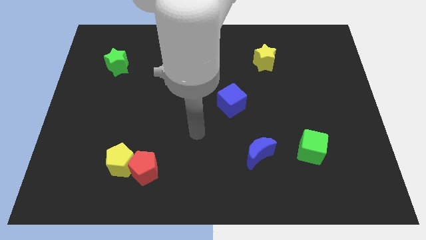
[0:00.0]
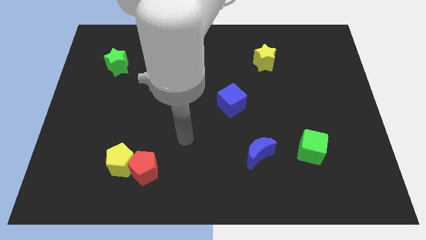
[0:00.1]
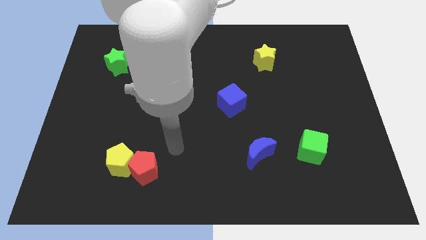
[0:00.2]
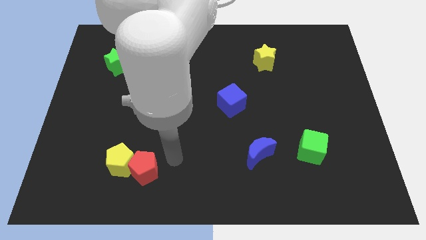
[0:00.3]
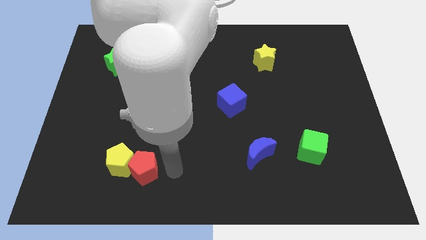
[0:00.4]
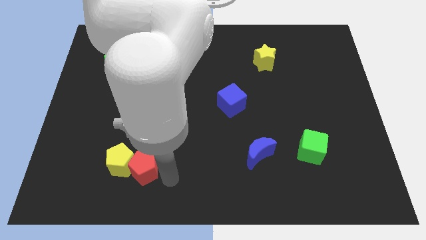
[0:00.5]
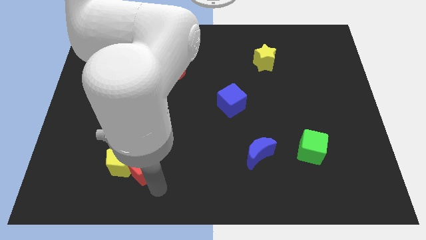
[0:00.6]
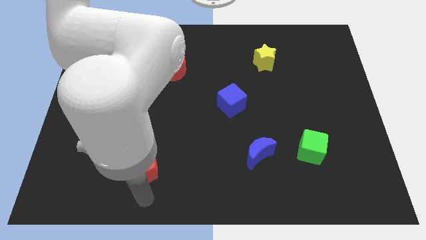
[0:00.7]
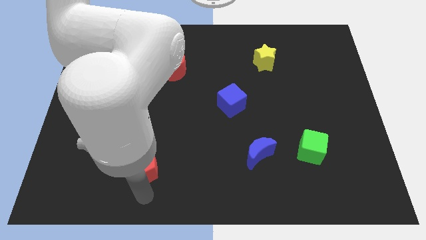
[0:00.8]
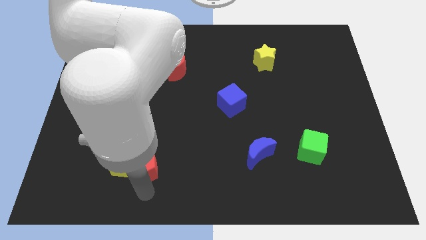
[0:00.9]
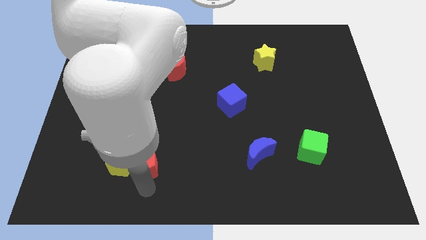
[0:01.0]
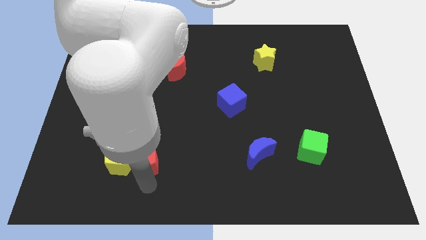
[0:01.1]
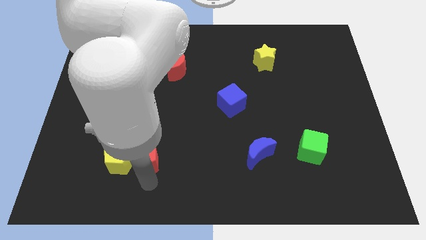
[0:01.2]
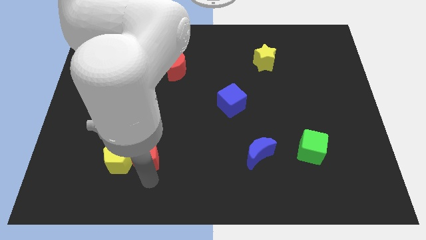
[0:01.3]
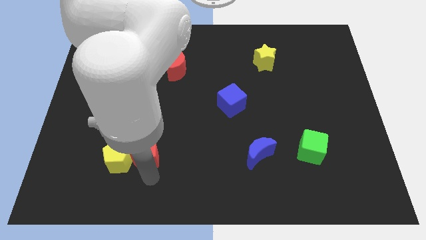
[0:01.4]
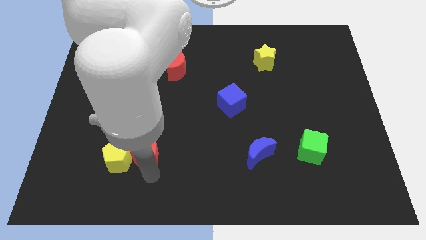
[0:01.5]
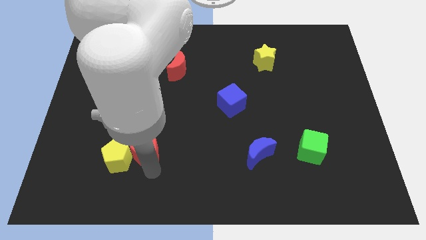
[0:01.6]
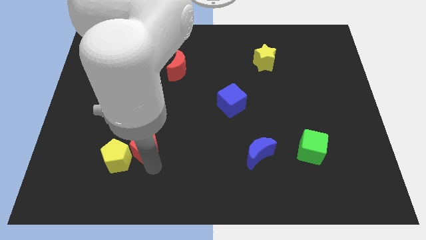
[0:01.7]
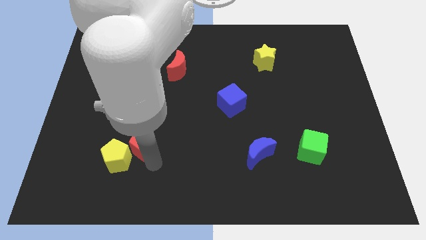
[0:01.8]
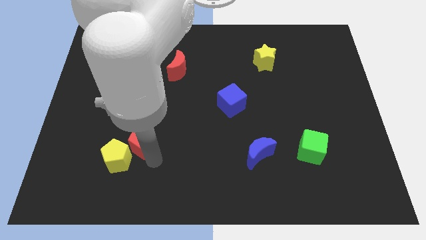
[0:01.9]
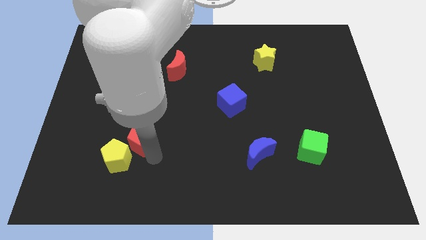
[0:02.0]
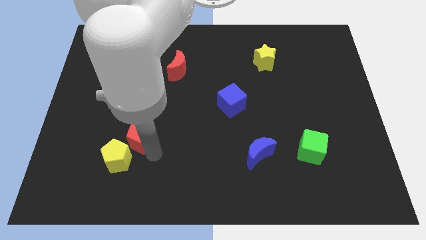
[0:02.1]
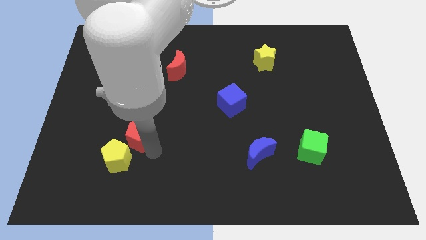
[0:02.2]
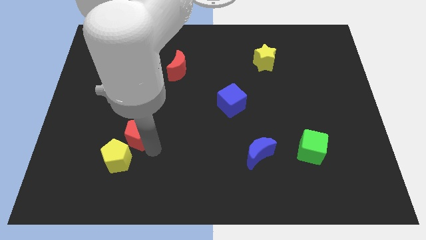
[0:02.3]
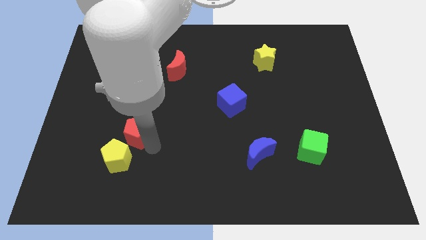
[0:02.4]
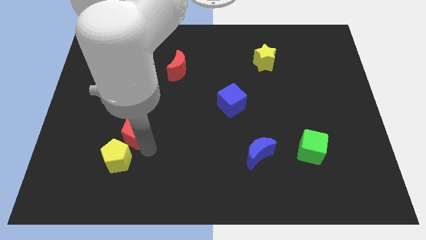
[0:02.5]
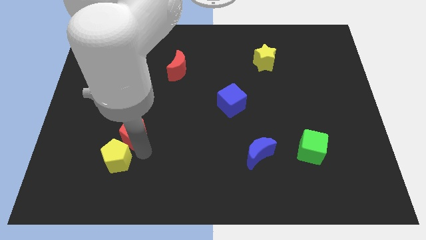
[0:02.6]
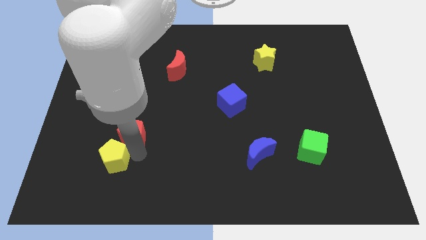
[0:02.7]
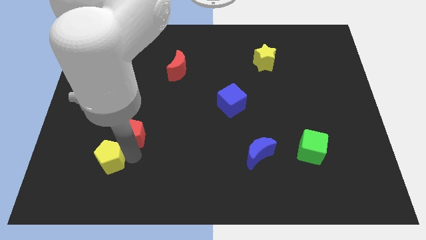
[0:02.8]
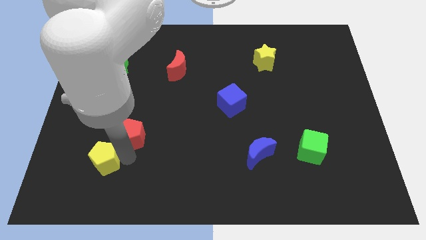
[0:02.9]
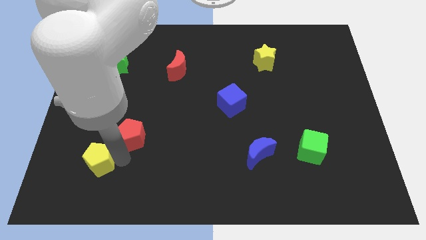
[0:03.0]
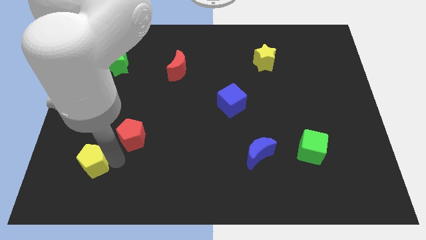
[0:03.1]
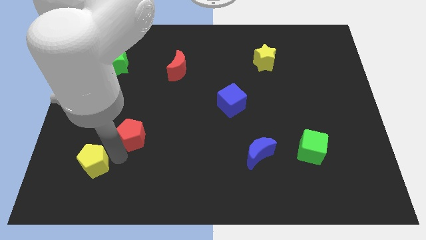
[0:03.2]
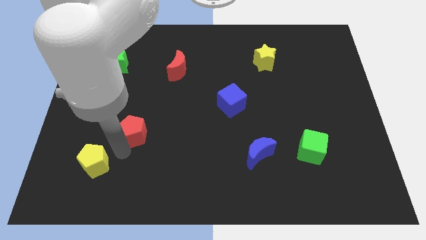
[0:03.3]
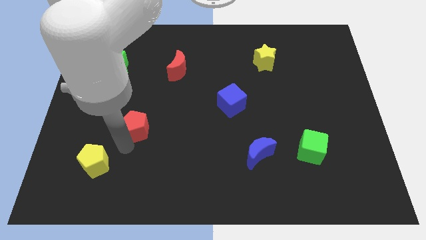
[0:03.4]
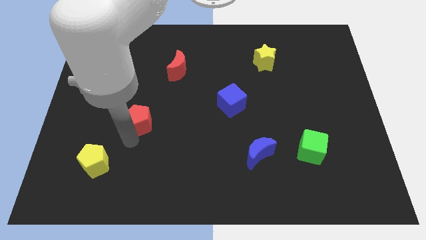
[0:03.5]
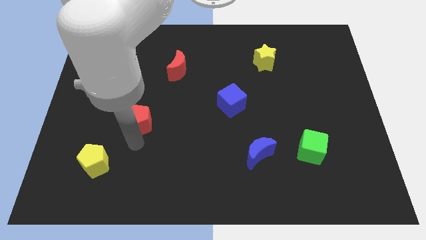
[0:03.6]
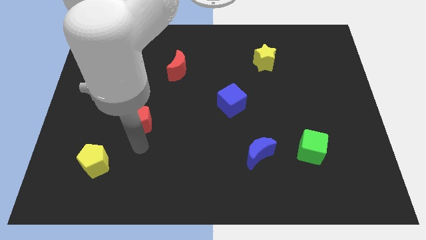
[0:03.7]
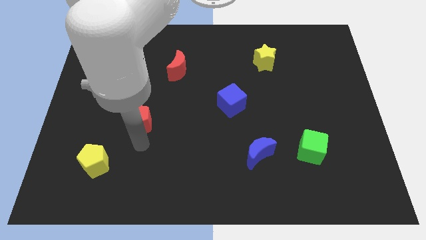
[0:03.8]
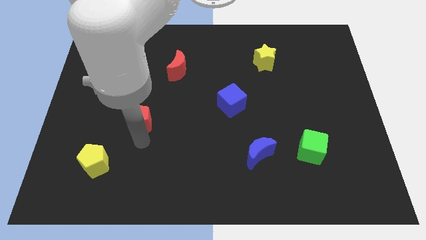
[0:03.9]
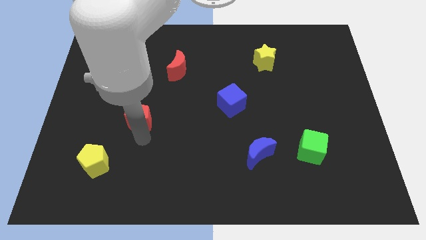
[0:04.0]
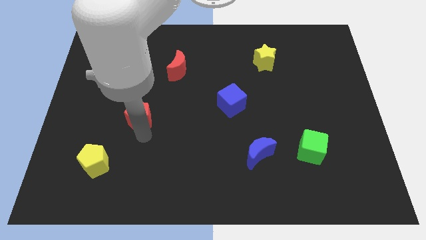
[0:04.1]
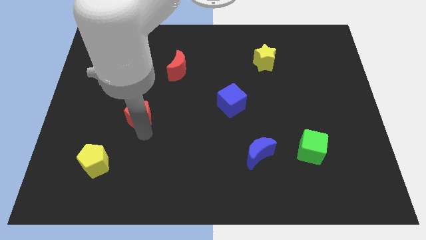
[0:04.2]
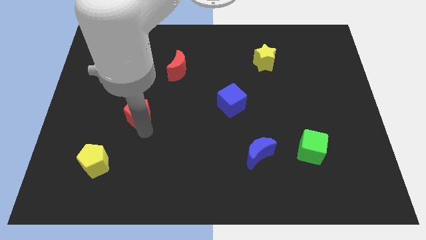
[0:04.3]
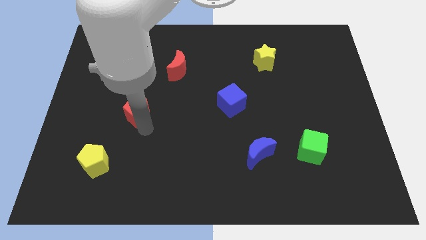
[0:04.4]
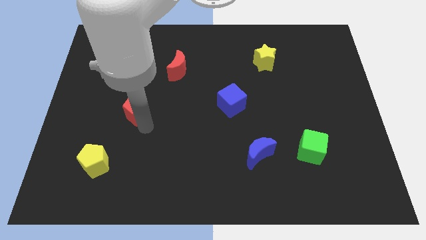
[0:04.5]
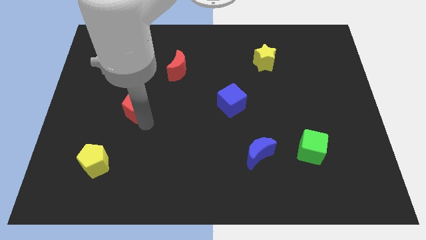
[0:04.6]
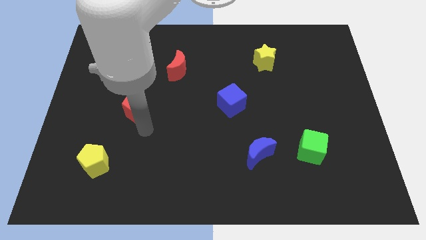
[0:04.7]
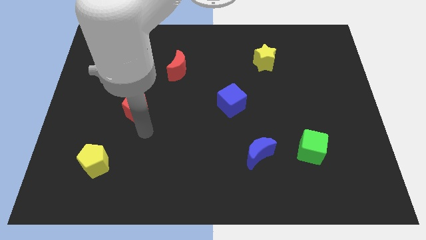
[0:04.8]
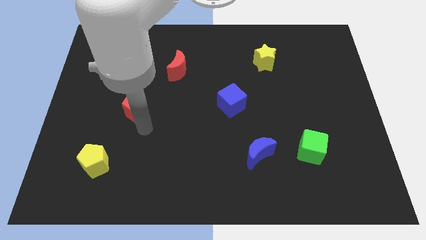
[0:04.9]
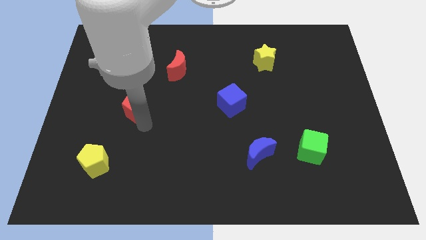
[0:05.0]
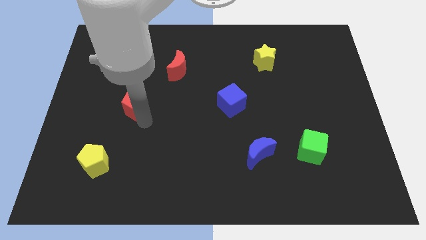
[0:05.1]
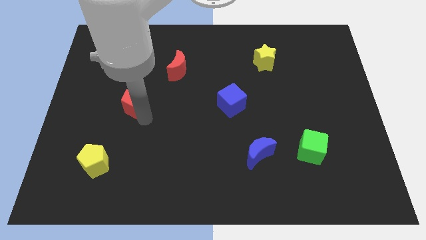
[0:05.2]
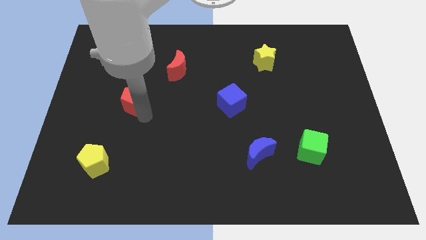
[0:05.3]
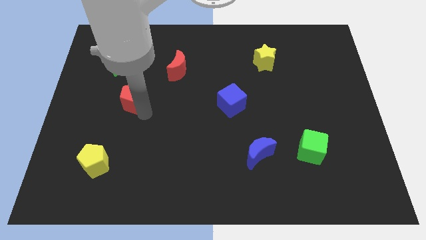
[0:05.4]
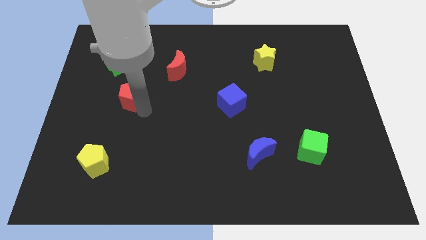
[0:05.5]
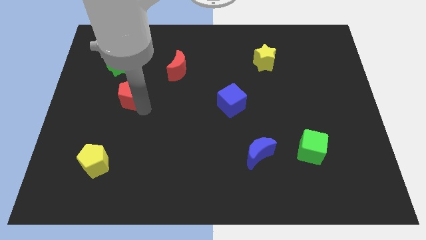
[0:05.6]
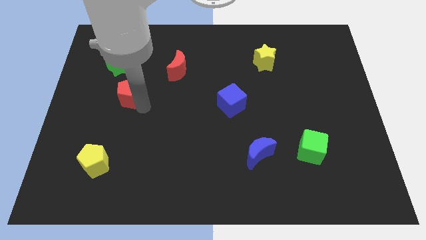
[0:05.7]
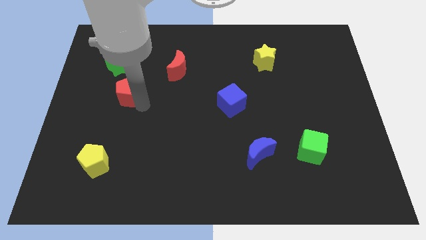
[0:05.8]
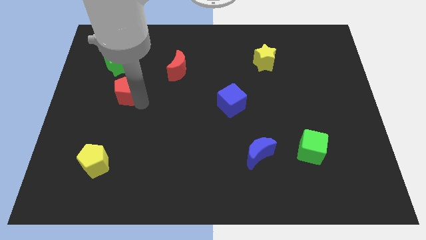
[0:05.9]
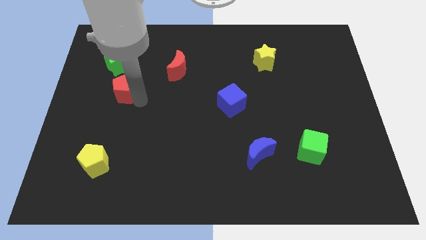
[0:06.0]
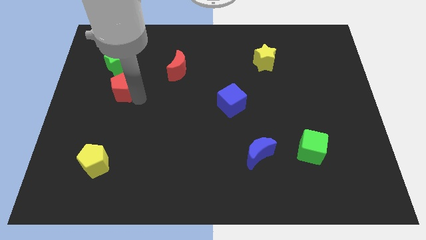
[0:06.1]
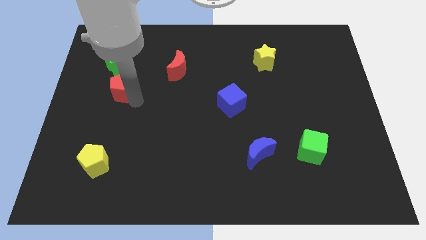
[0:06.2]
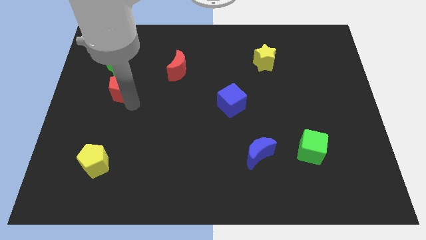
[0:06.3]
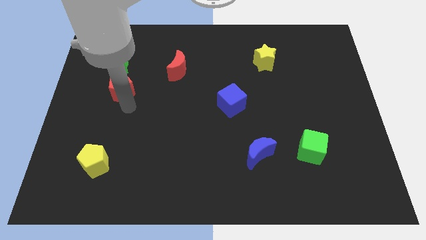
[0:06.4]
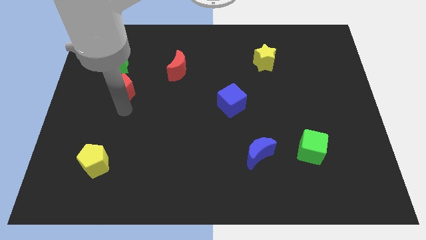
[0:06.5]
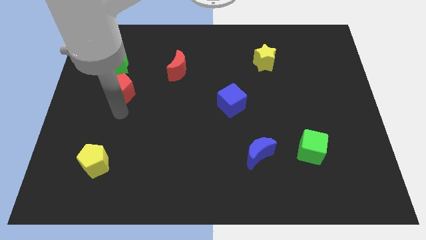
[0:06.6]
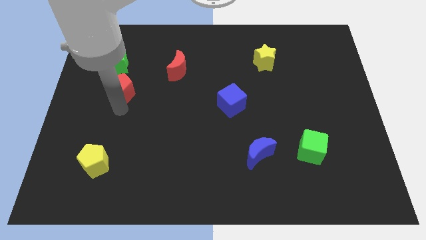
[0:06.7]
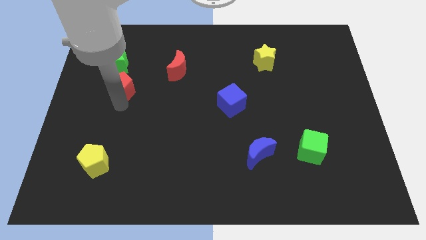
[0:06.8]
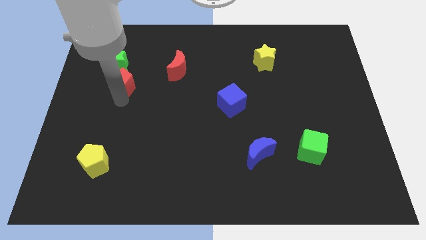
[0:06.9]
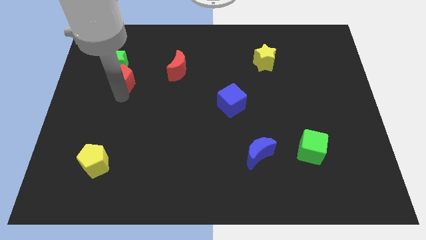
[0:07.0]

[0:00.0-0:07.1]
push the red pentagon next to the green star

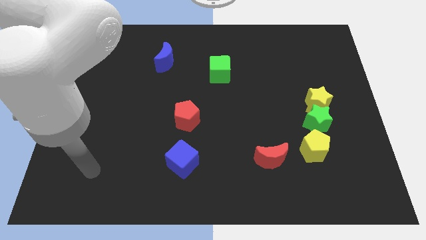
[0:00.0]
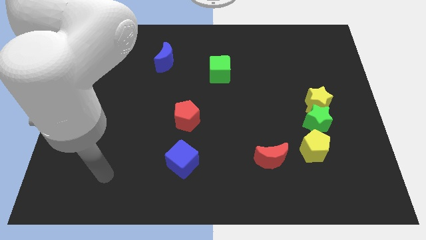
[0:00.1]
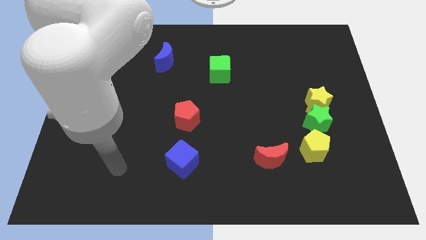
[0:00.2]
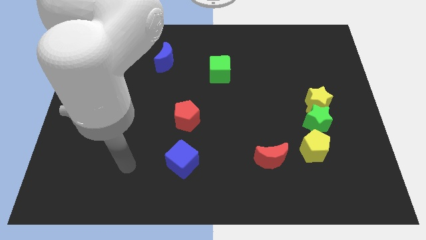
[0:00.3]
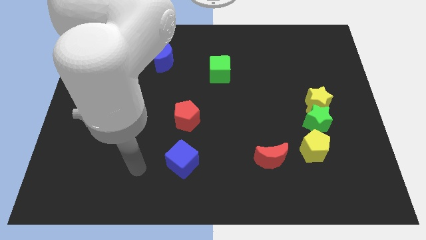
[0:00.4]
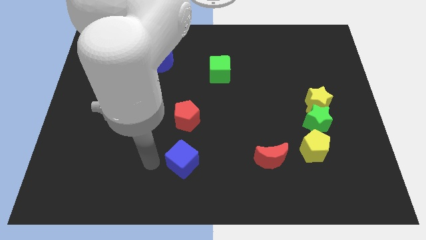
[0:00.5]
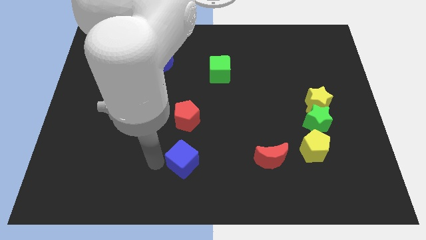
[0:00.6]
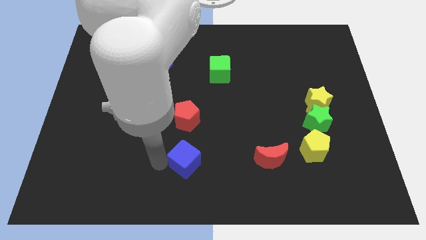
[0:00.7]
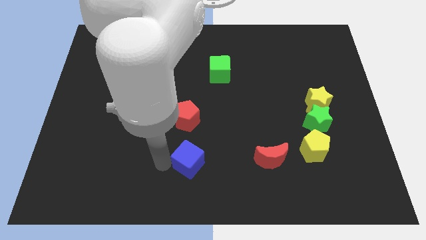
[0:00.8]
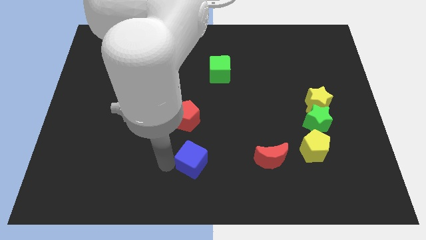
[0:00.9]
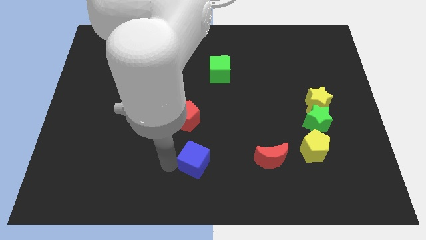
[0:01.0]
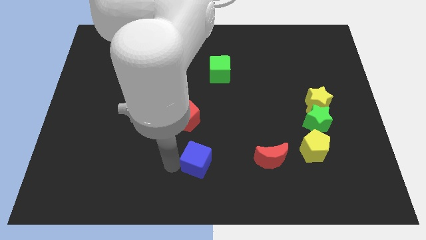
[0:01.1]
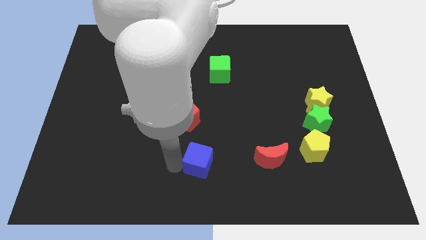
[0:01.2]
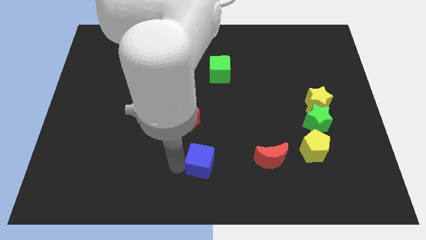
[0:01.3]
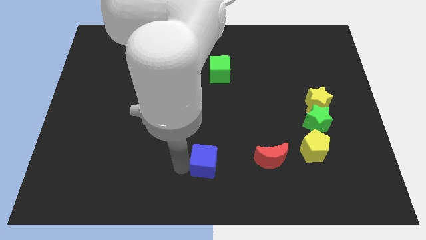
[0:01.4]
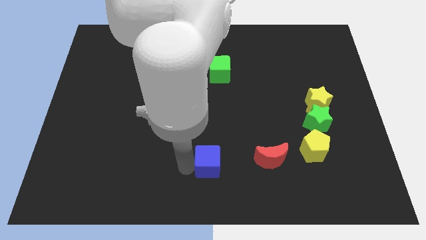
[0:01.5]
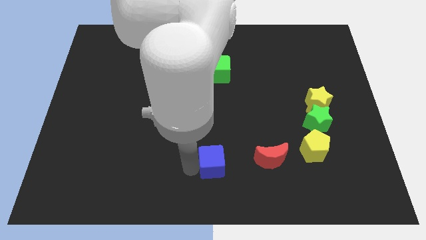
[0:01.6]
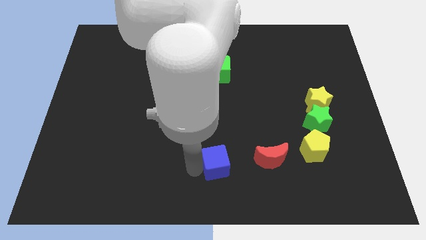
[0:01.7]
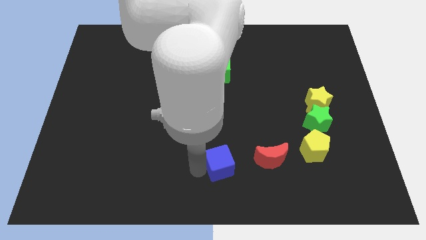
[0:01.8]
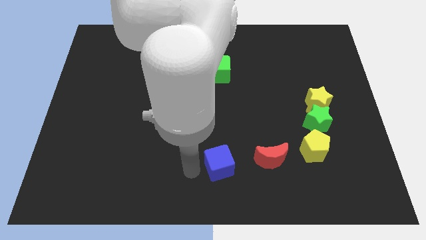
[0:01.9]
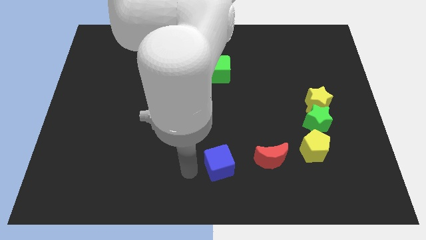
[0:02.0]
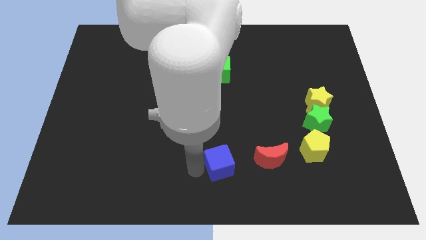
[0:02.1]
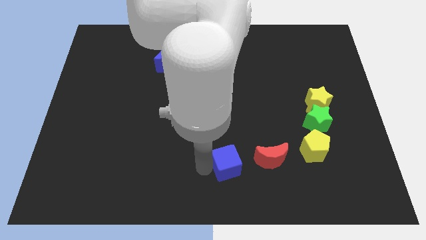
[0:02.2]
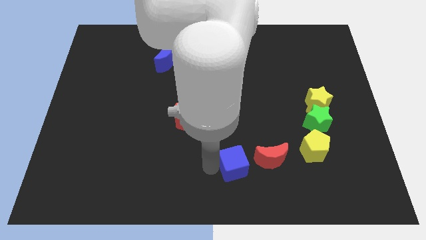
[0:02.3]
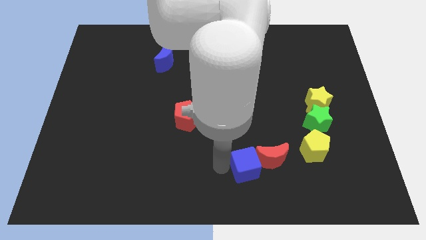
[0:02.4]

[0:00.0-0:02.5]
move the blue cube close to the red moon
